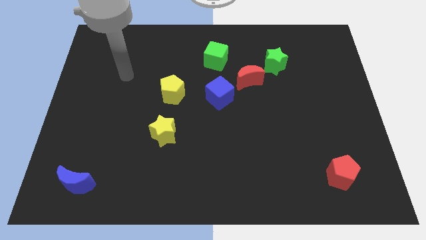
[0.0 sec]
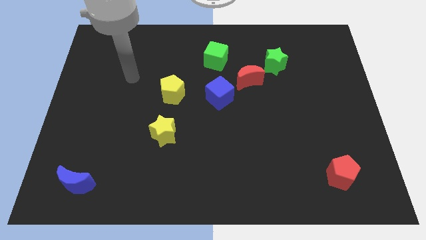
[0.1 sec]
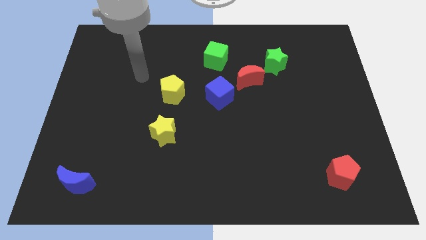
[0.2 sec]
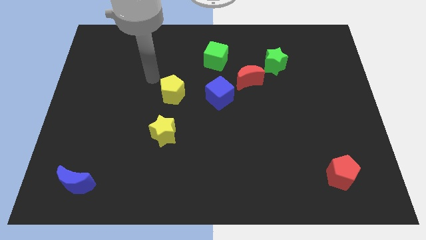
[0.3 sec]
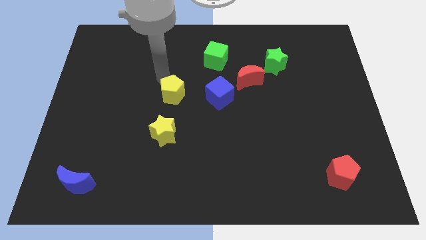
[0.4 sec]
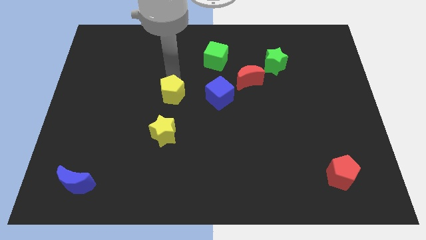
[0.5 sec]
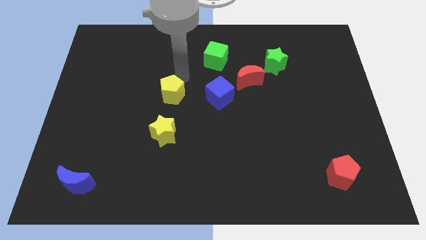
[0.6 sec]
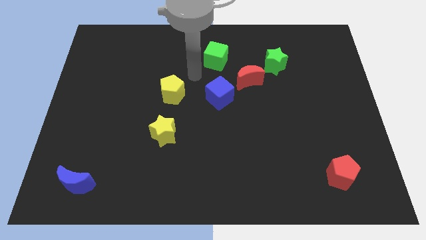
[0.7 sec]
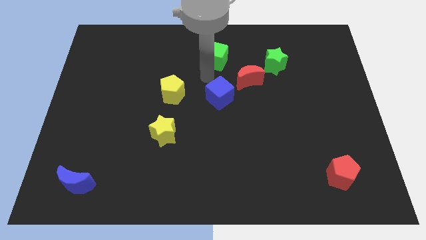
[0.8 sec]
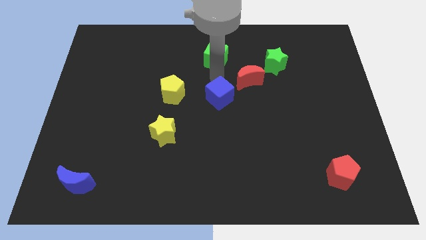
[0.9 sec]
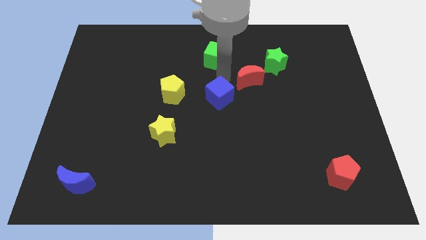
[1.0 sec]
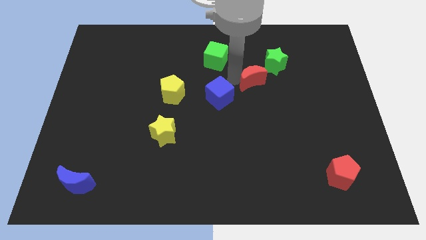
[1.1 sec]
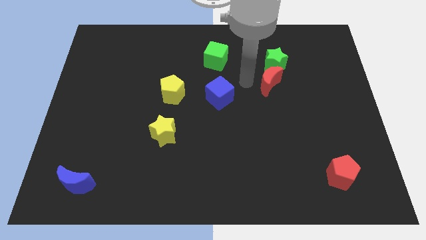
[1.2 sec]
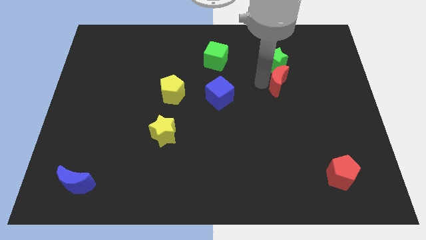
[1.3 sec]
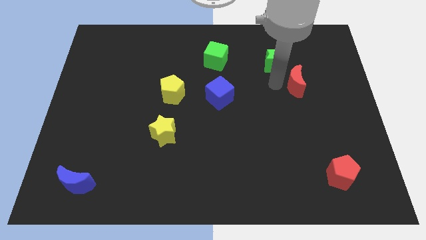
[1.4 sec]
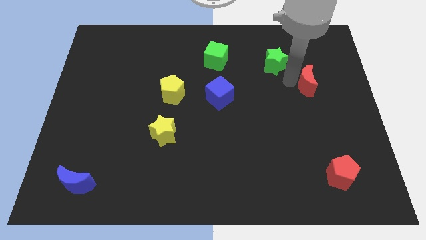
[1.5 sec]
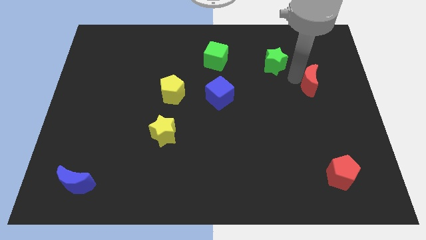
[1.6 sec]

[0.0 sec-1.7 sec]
move the green star away from the red moon

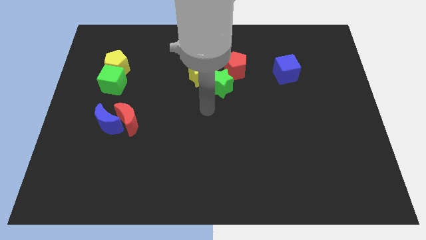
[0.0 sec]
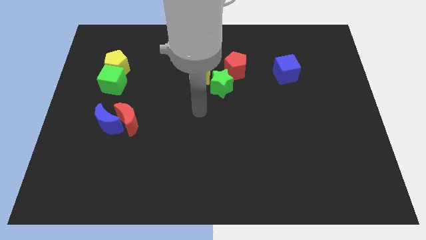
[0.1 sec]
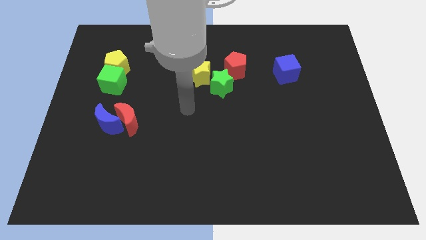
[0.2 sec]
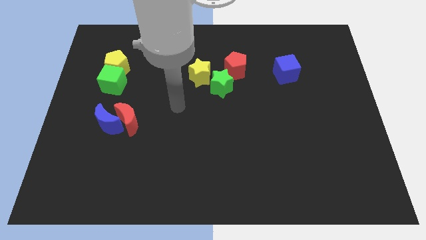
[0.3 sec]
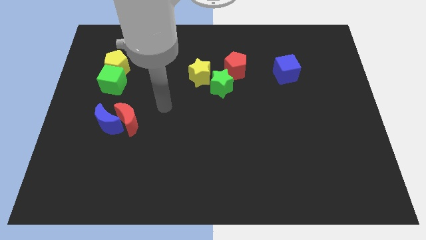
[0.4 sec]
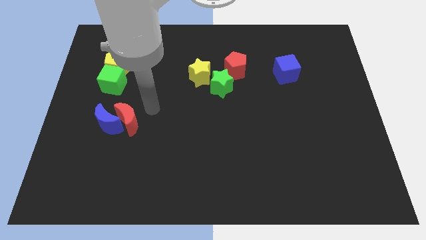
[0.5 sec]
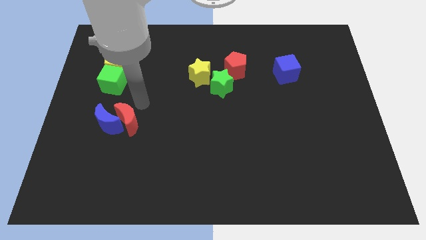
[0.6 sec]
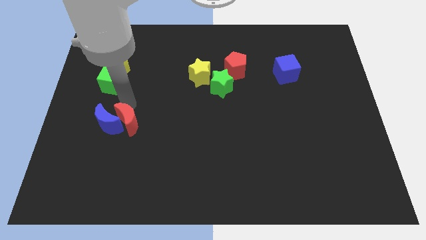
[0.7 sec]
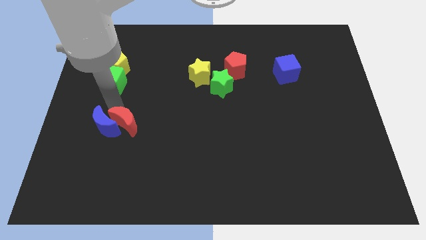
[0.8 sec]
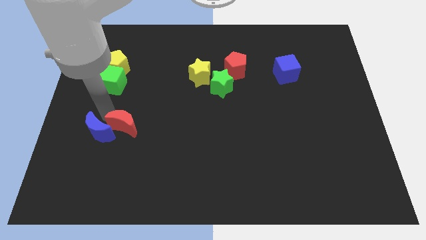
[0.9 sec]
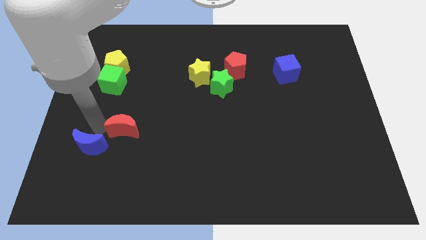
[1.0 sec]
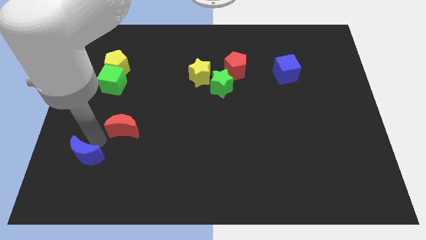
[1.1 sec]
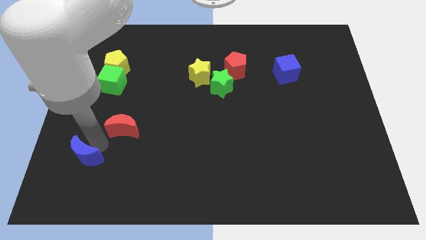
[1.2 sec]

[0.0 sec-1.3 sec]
move the red moon away from the blue moon

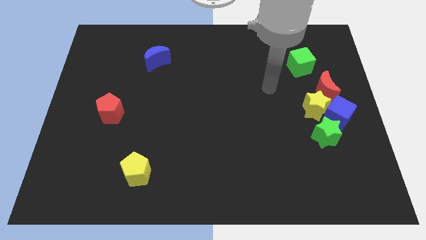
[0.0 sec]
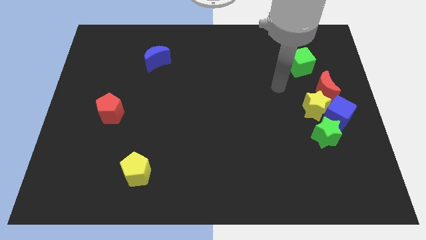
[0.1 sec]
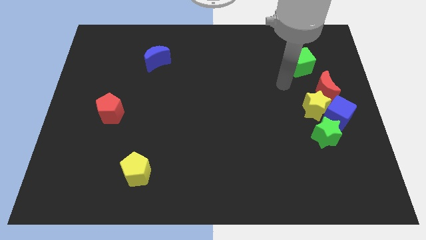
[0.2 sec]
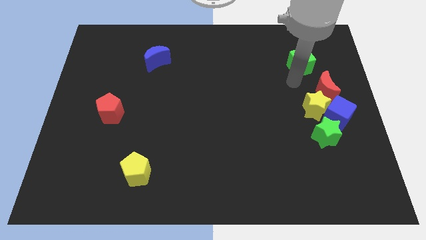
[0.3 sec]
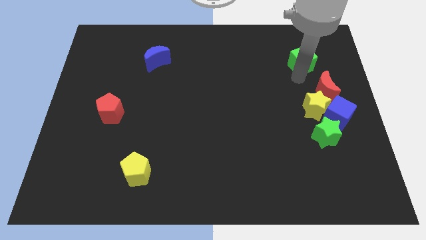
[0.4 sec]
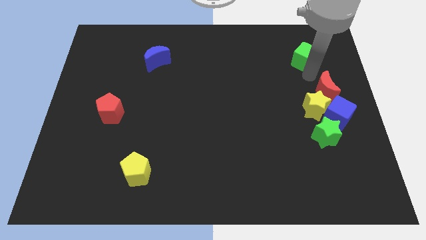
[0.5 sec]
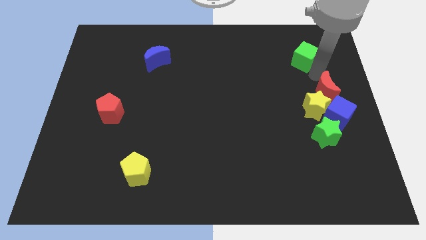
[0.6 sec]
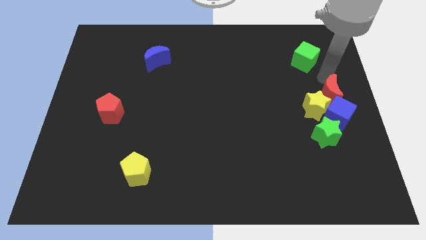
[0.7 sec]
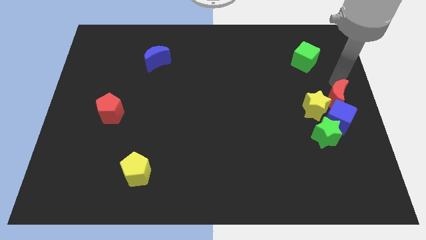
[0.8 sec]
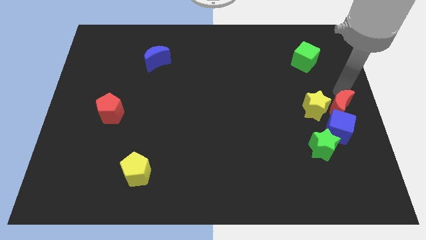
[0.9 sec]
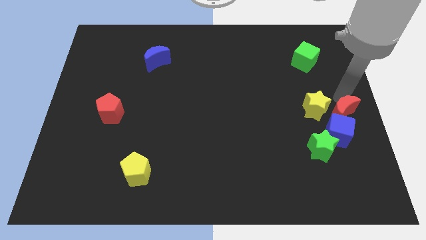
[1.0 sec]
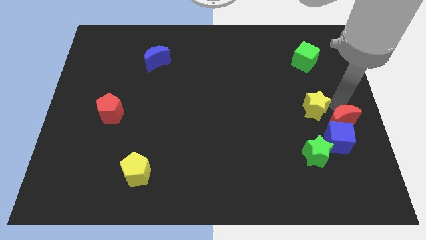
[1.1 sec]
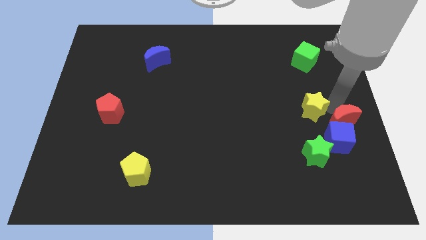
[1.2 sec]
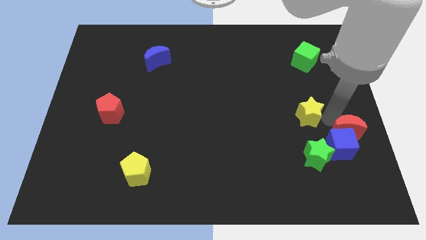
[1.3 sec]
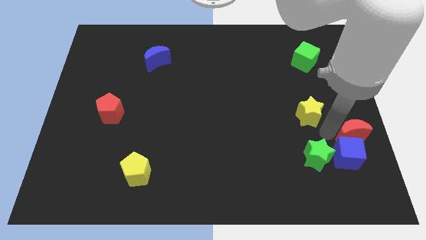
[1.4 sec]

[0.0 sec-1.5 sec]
move the yellow star away from the group of blocks

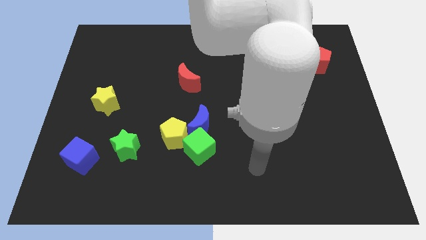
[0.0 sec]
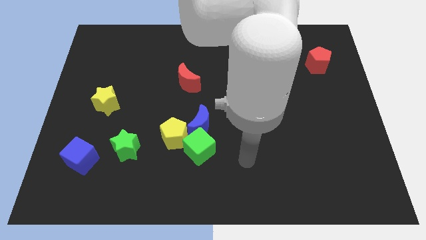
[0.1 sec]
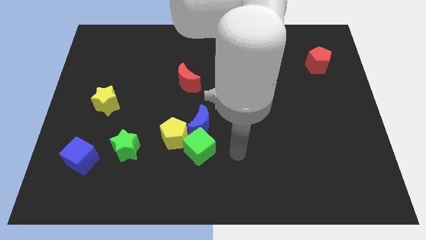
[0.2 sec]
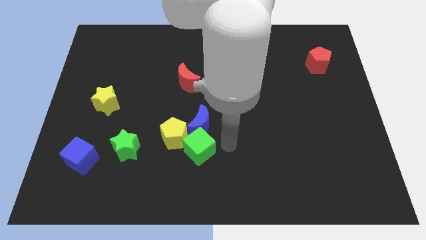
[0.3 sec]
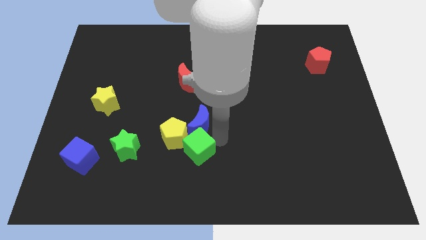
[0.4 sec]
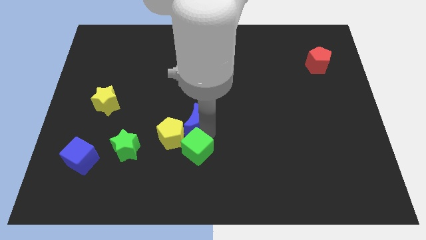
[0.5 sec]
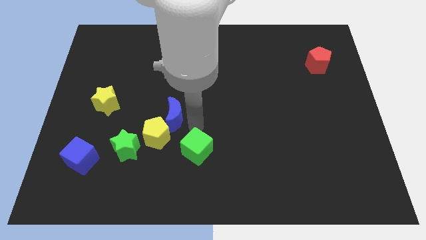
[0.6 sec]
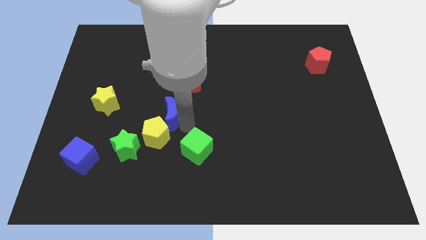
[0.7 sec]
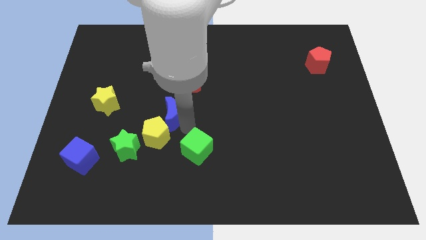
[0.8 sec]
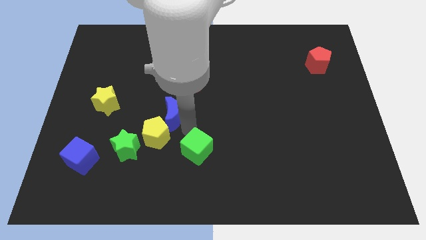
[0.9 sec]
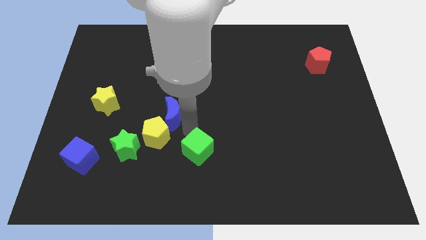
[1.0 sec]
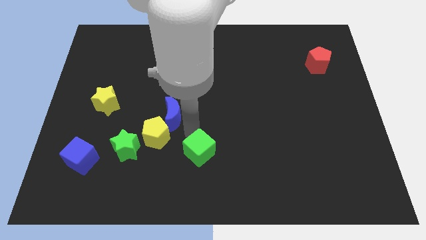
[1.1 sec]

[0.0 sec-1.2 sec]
move the green cube away from the blue moon and yellow pentagon

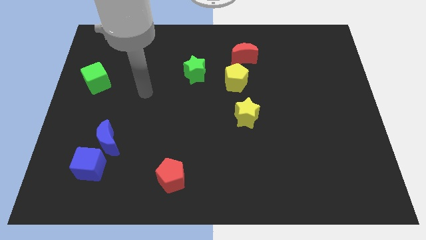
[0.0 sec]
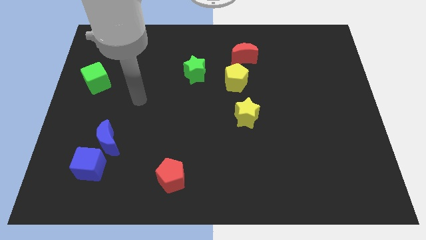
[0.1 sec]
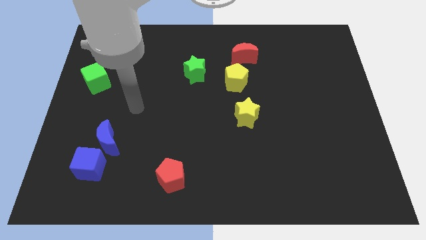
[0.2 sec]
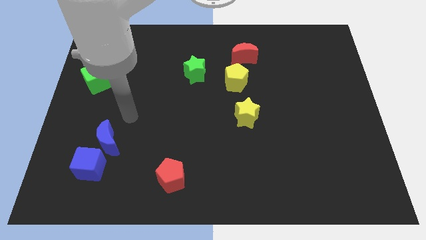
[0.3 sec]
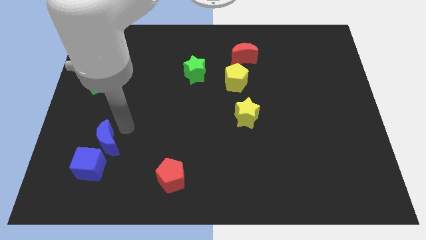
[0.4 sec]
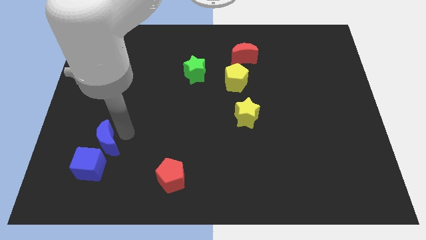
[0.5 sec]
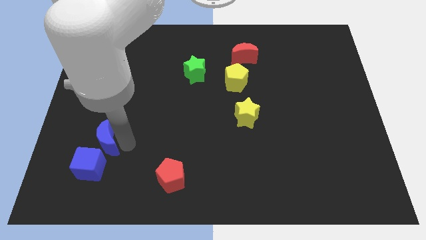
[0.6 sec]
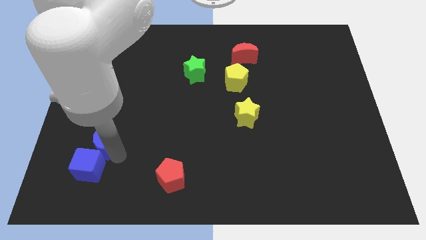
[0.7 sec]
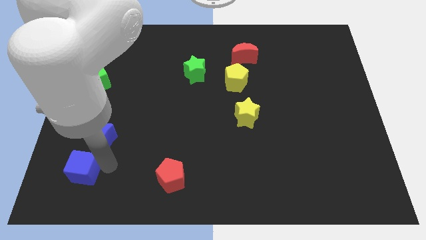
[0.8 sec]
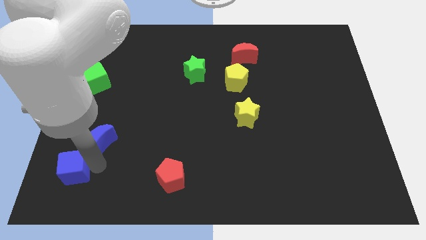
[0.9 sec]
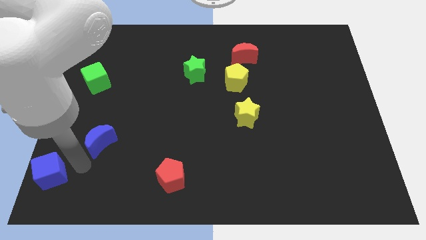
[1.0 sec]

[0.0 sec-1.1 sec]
move the blue moon away from the blue cube

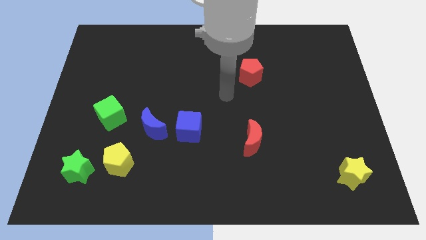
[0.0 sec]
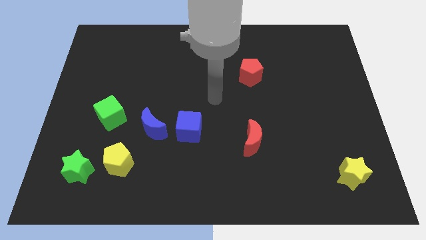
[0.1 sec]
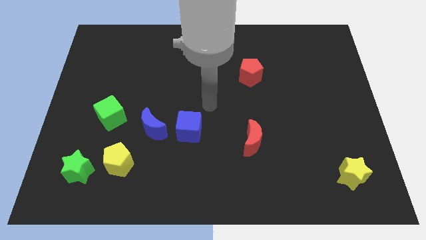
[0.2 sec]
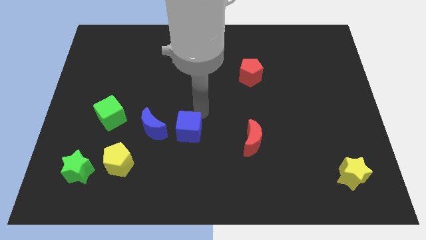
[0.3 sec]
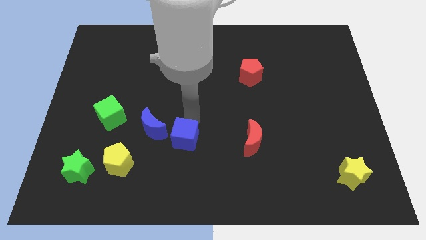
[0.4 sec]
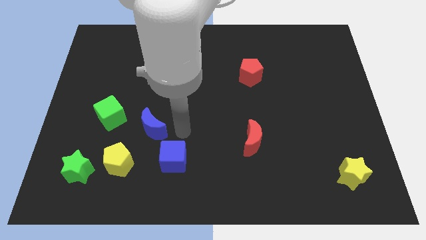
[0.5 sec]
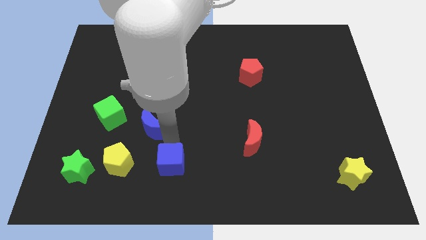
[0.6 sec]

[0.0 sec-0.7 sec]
pull the blue moon apart from the blue cube

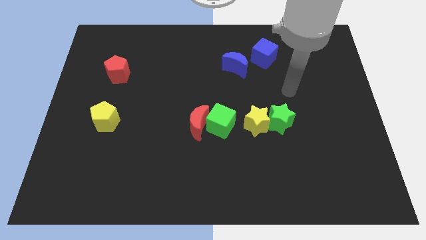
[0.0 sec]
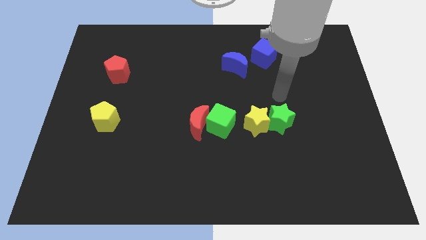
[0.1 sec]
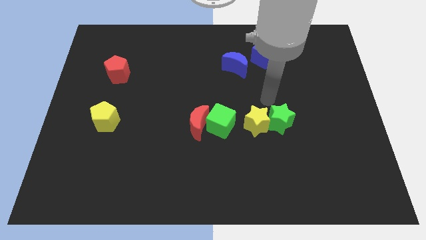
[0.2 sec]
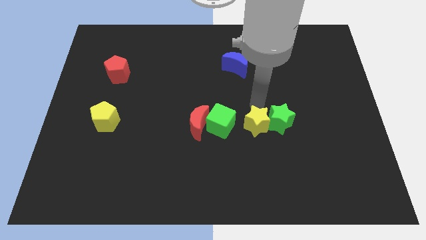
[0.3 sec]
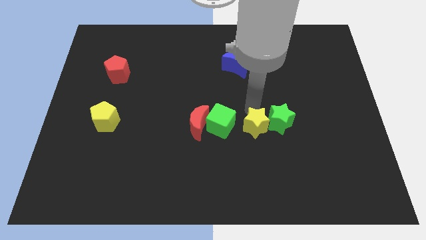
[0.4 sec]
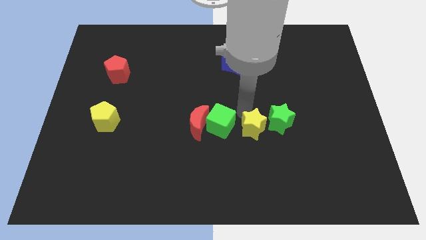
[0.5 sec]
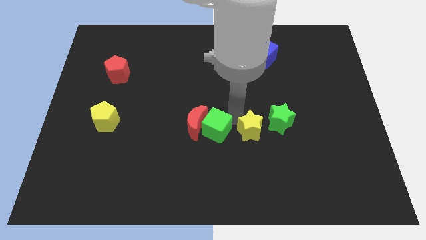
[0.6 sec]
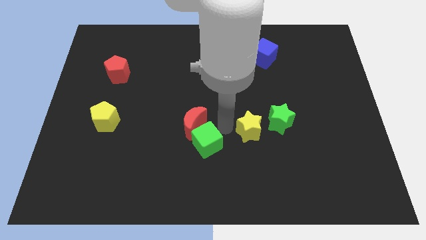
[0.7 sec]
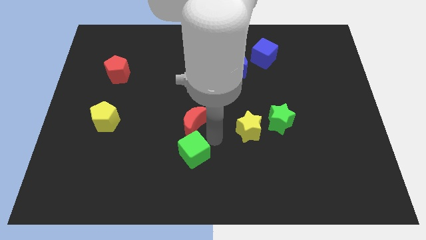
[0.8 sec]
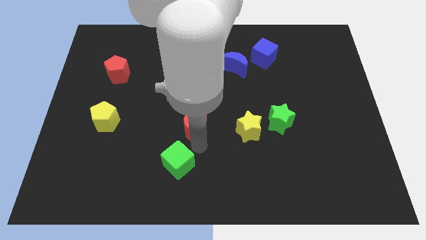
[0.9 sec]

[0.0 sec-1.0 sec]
separate the red moon from the green cube

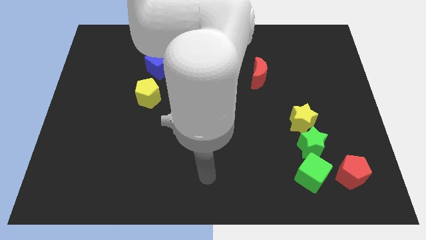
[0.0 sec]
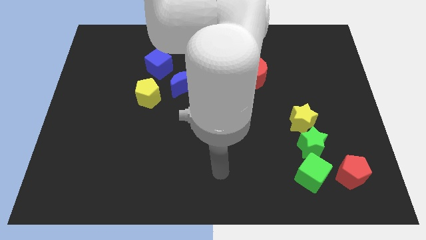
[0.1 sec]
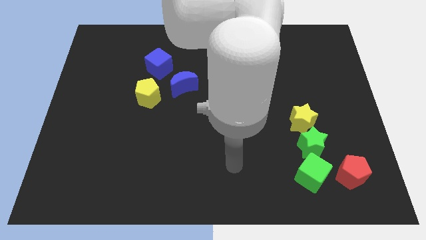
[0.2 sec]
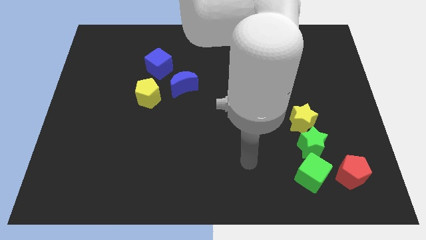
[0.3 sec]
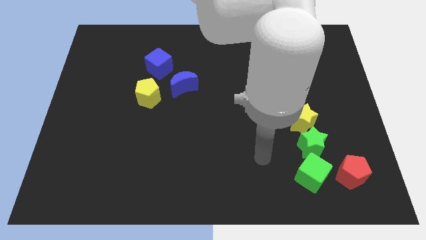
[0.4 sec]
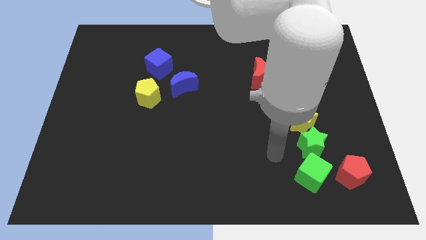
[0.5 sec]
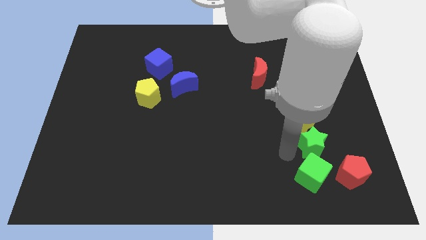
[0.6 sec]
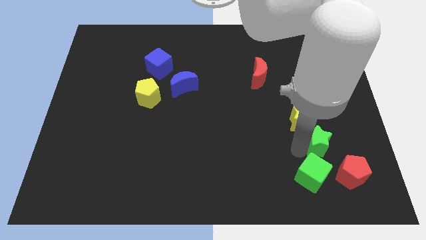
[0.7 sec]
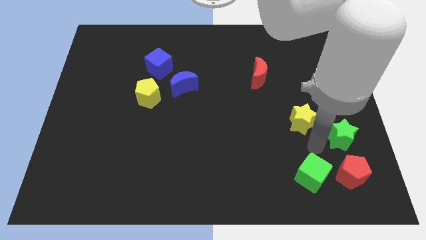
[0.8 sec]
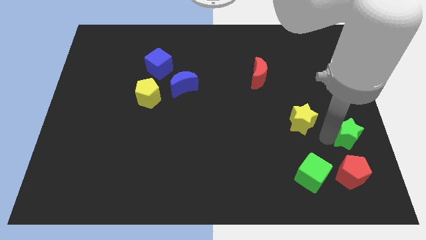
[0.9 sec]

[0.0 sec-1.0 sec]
pull the yellow star apart from the green star
